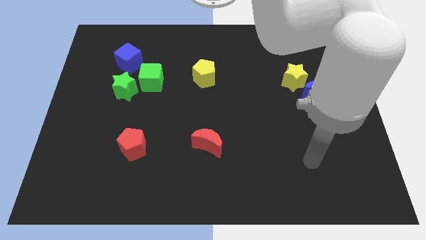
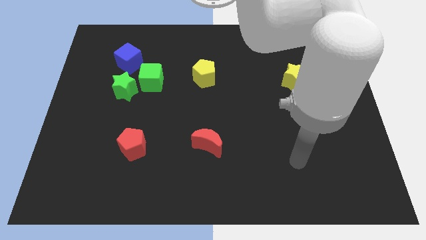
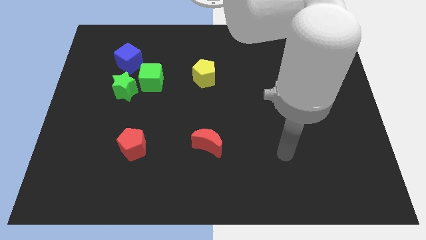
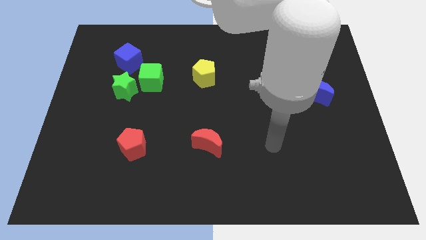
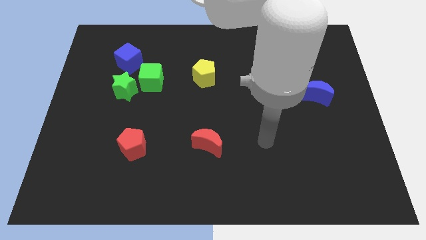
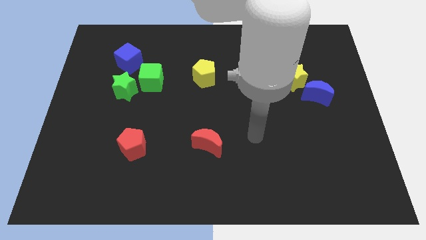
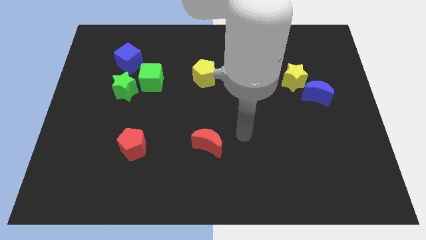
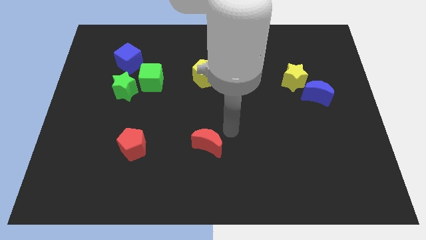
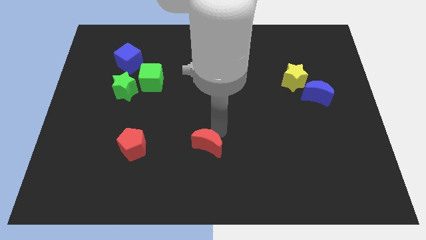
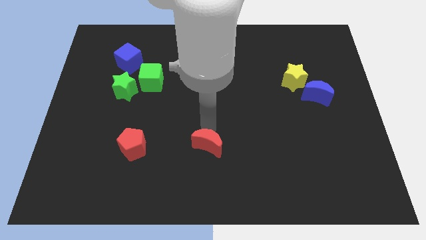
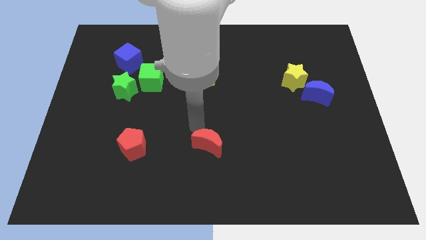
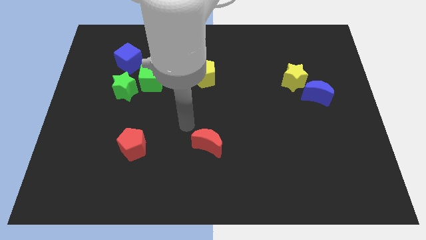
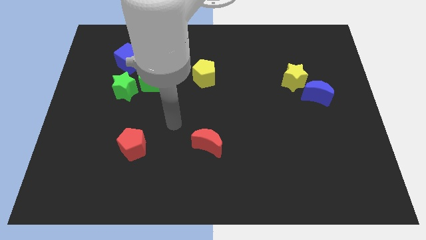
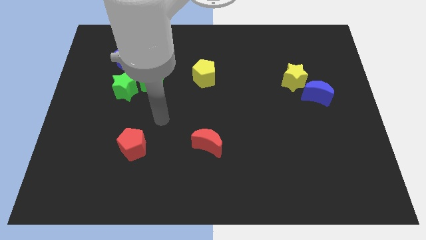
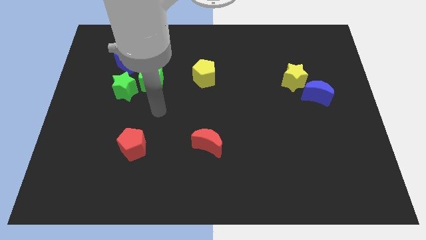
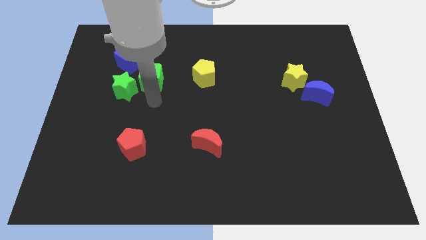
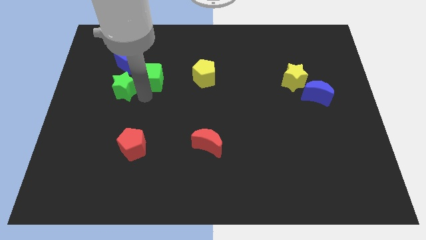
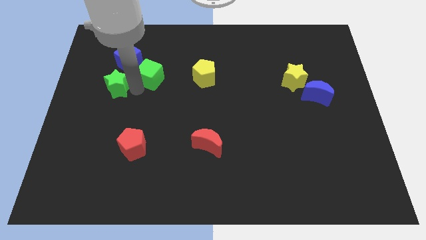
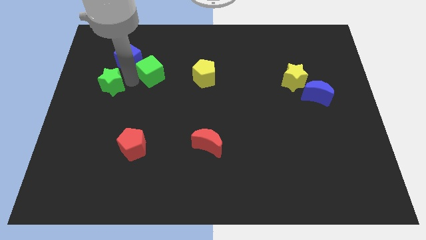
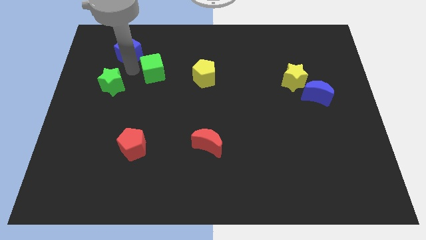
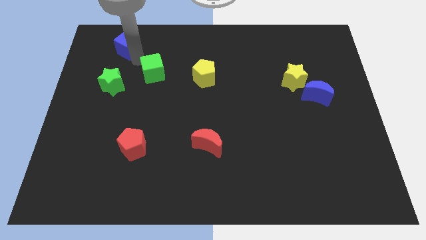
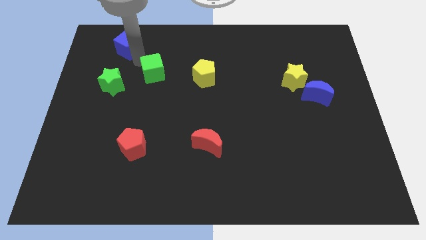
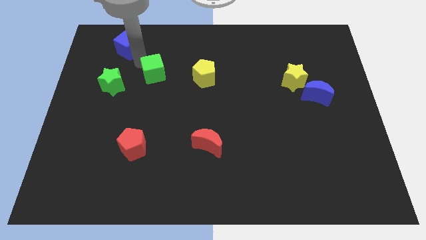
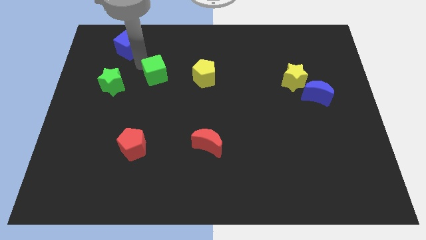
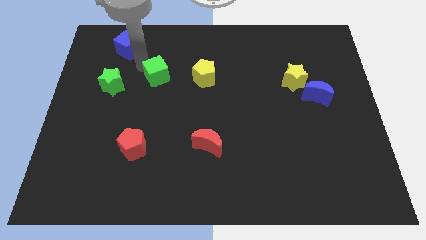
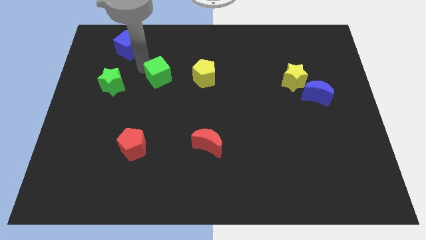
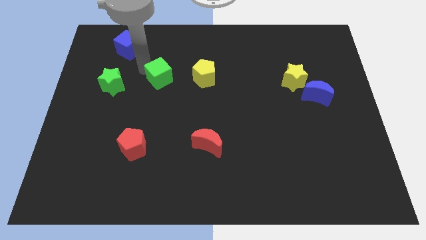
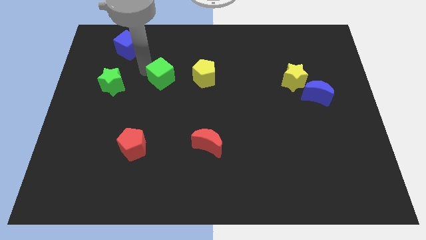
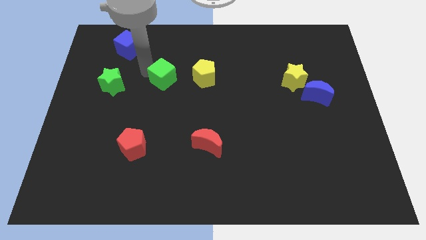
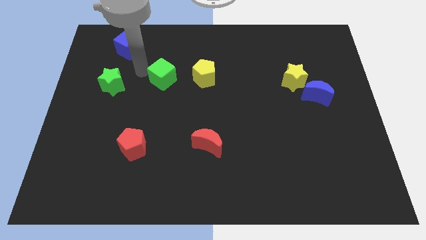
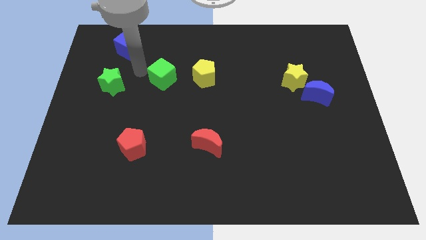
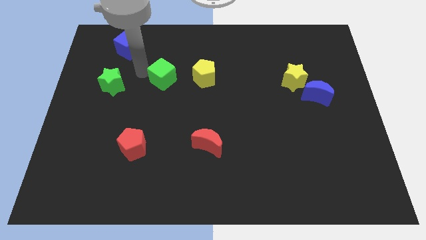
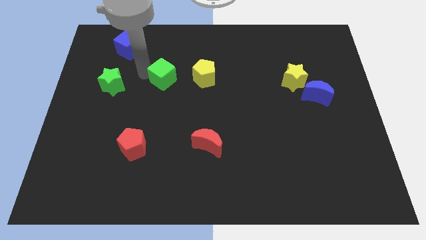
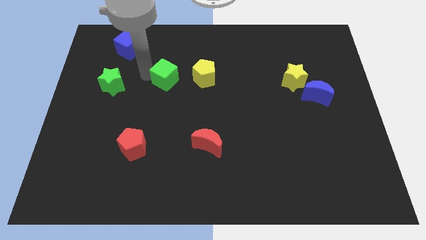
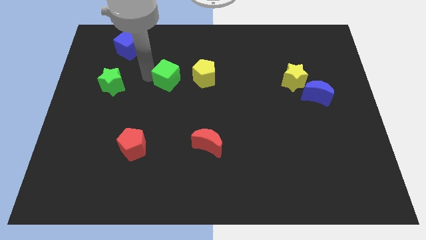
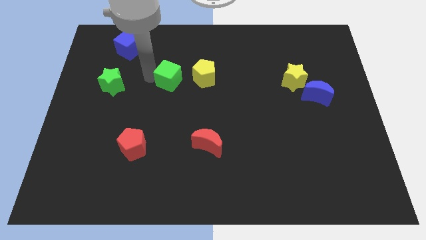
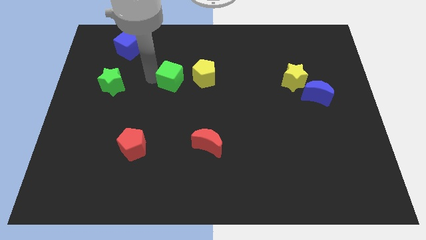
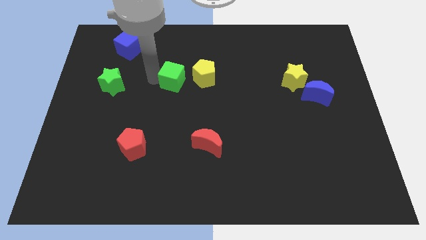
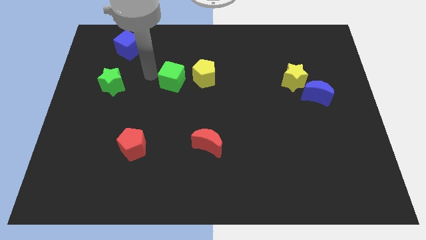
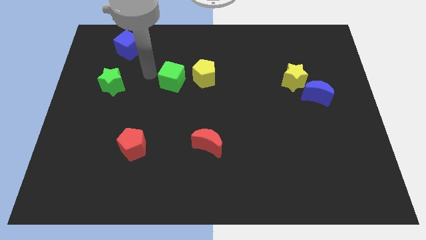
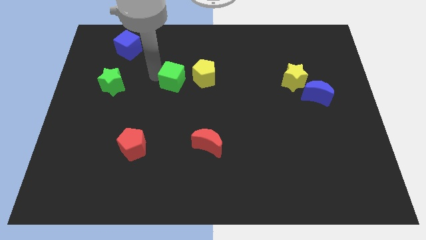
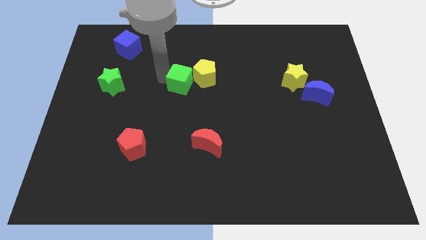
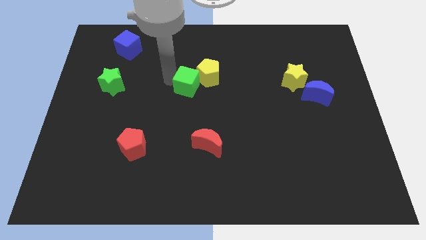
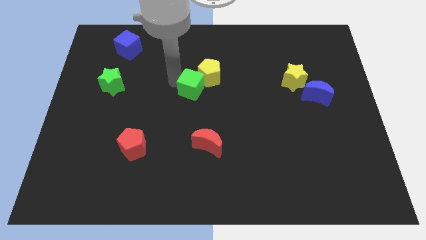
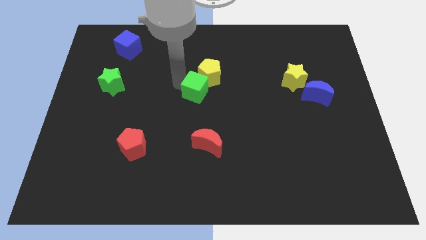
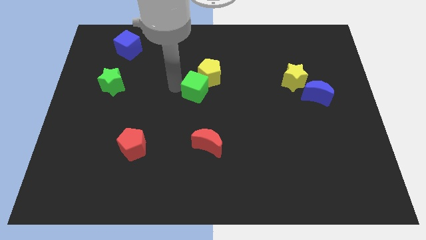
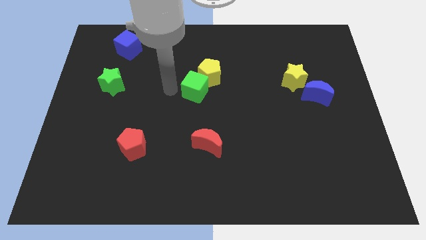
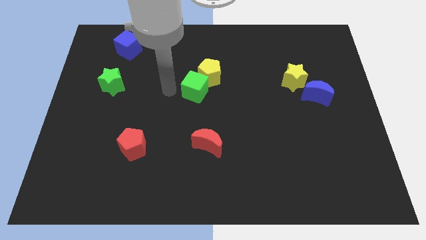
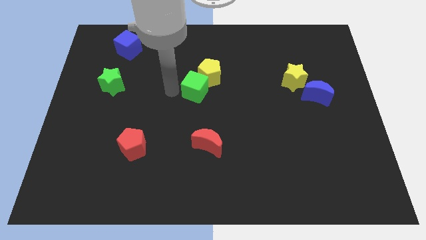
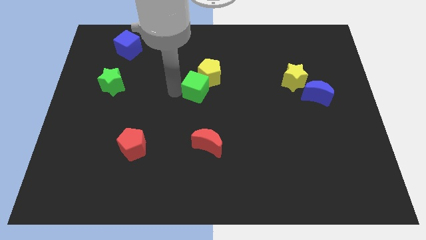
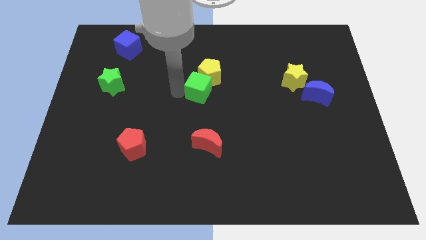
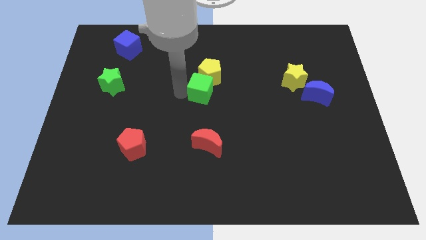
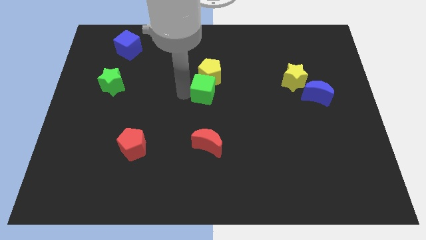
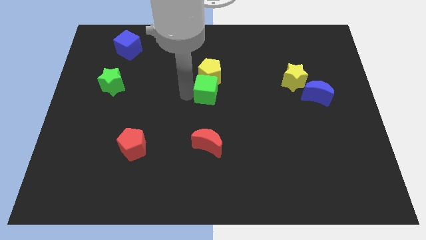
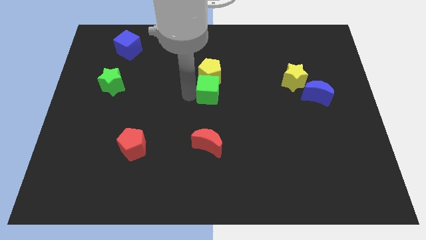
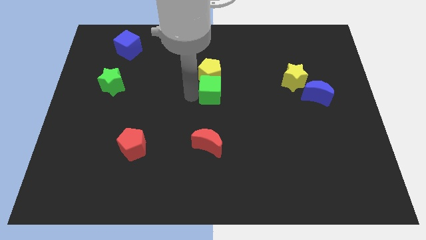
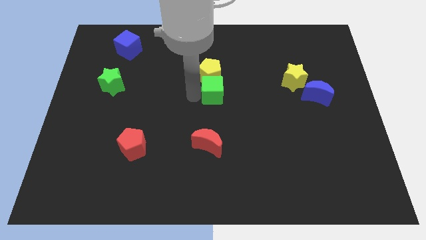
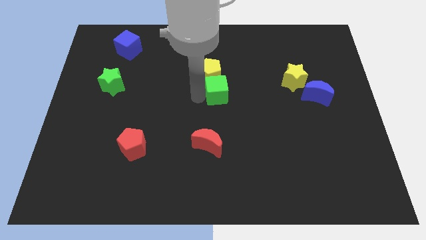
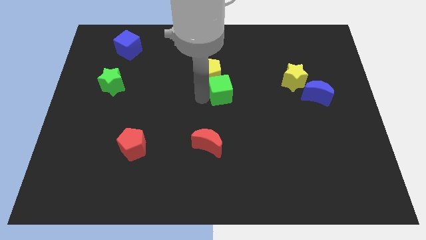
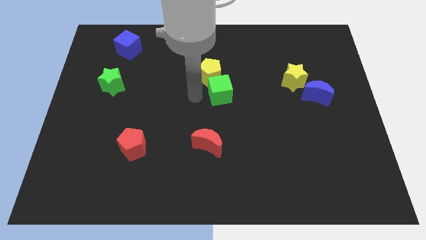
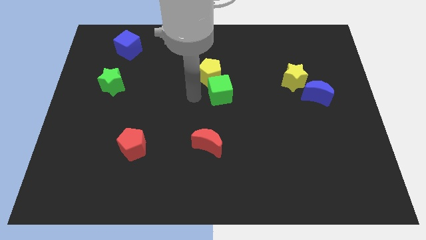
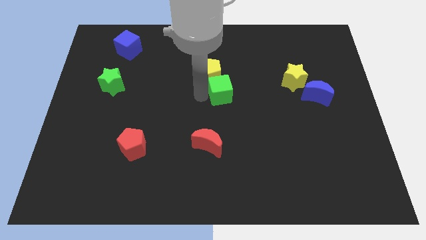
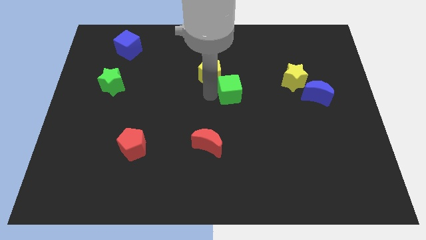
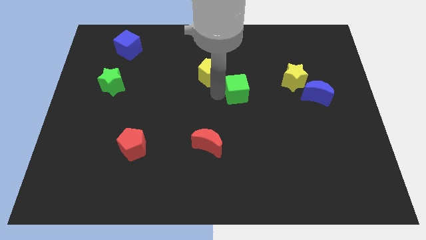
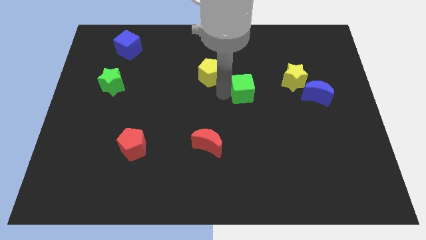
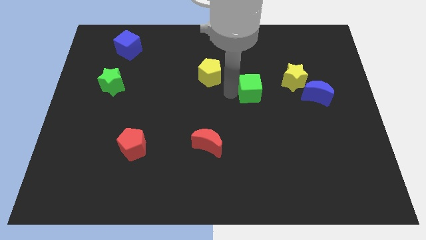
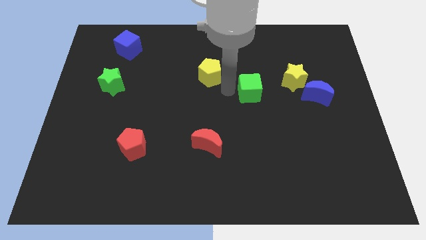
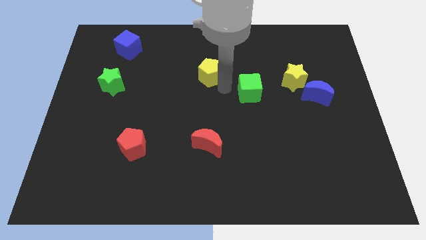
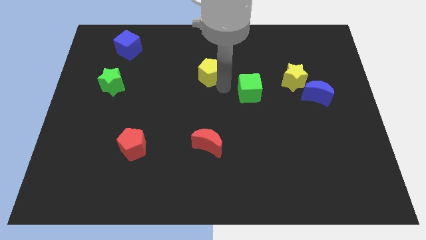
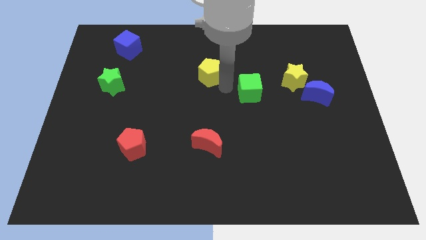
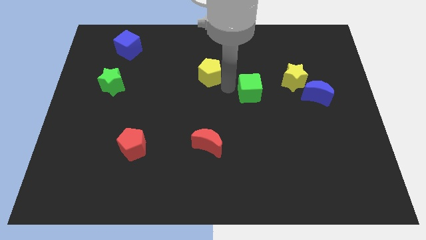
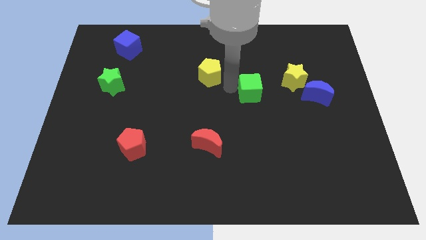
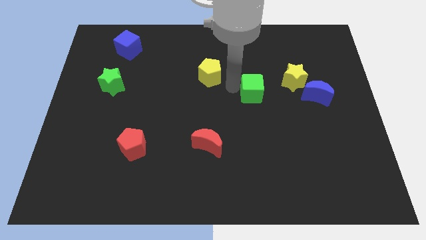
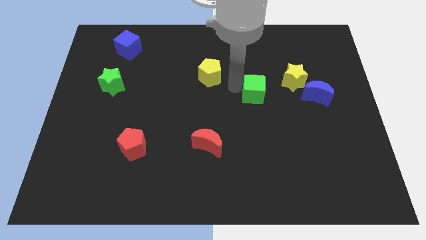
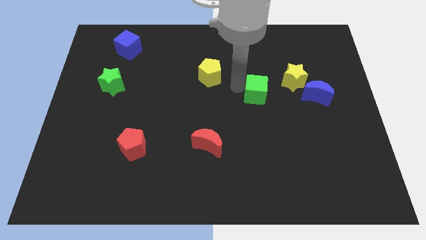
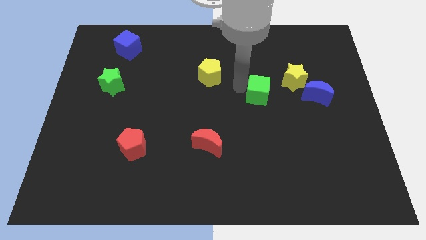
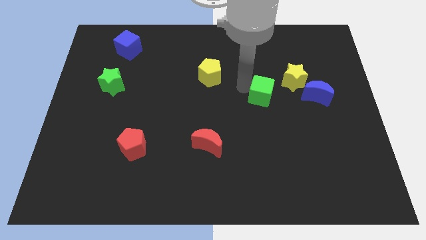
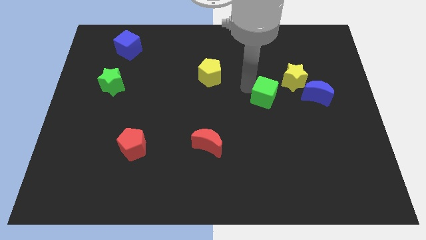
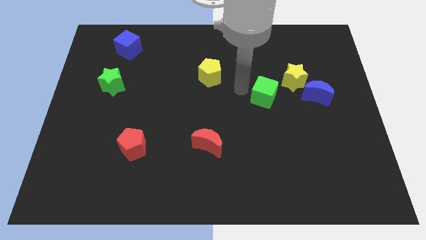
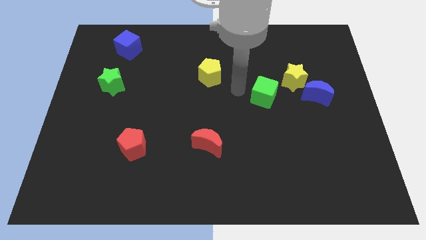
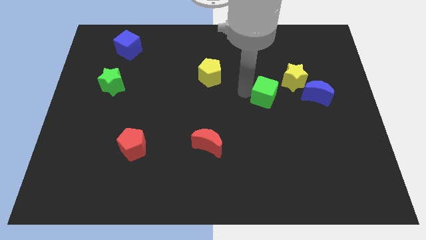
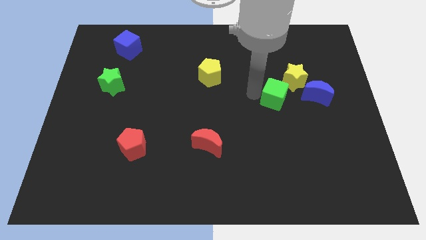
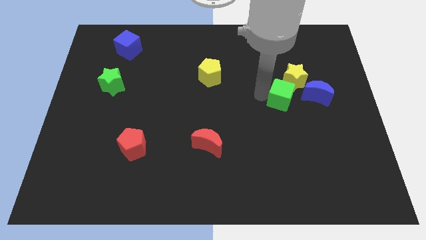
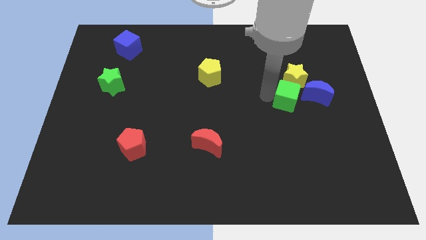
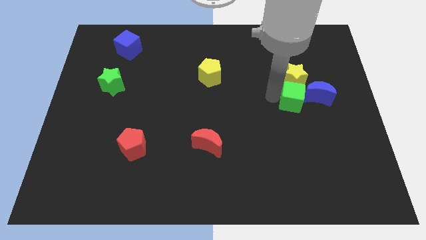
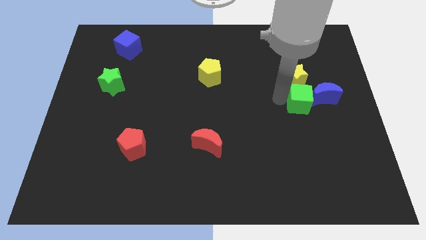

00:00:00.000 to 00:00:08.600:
move the green cube towards the blue moon
